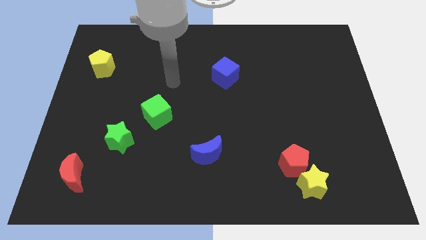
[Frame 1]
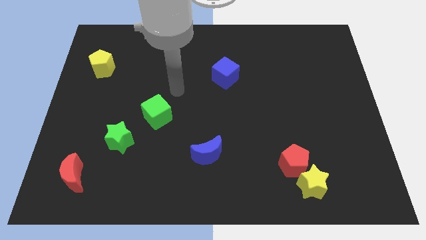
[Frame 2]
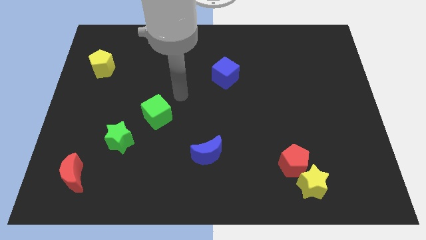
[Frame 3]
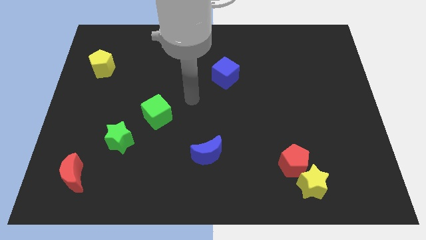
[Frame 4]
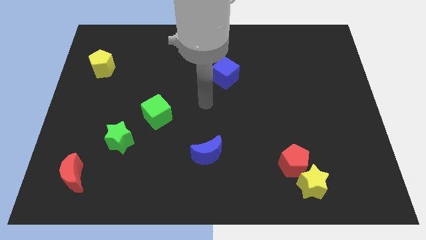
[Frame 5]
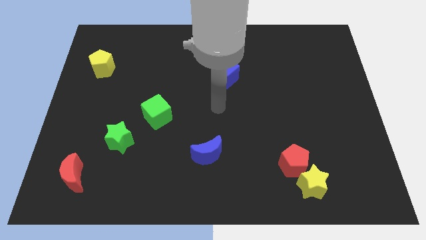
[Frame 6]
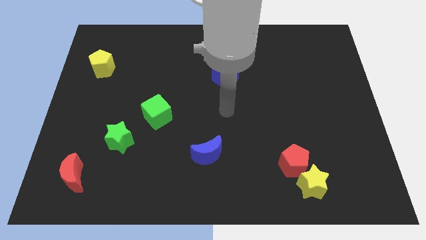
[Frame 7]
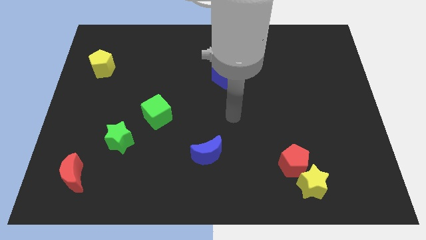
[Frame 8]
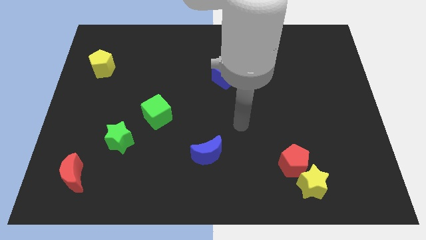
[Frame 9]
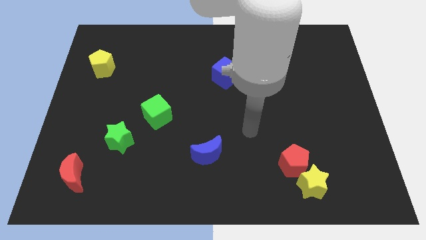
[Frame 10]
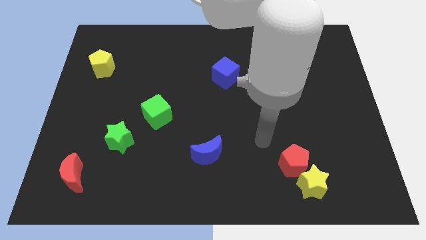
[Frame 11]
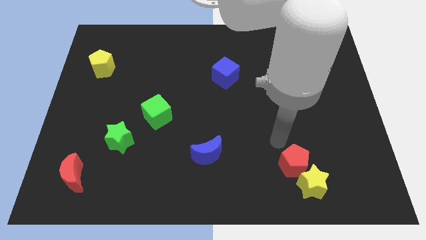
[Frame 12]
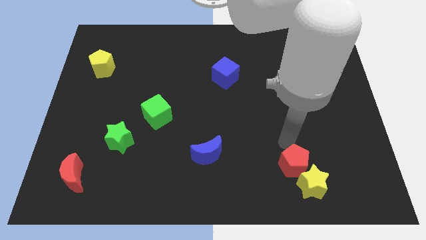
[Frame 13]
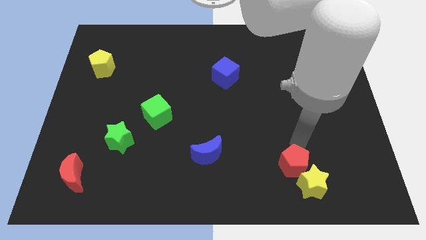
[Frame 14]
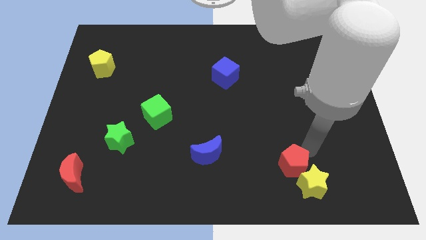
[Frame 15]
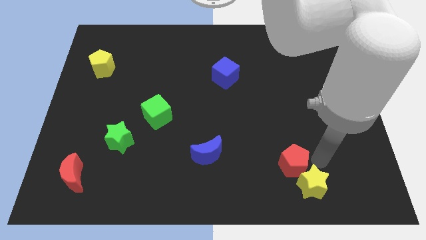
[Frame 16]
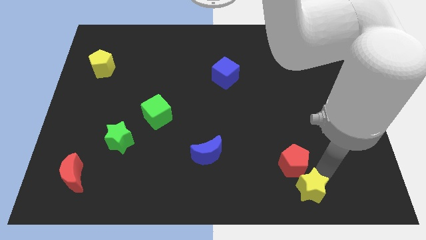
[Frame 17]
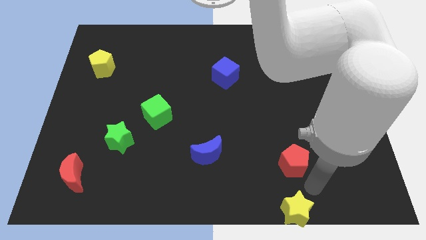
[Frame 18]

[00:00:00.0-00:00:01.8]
pull the red pentagon apart from the yellow star

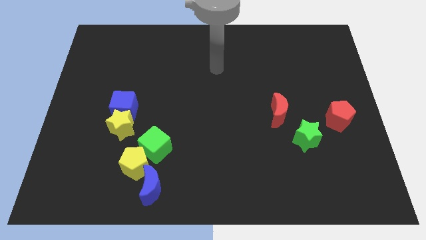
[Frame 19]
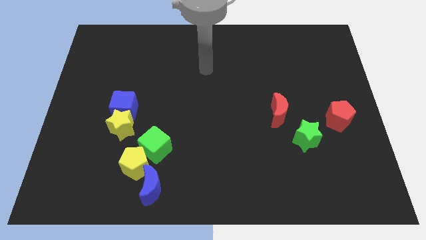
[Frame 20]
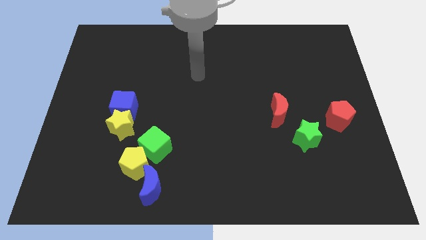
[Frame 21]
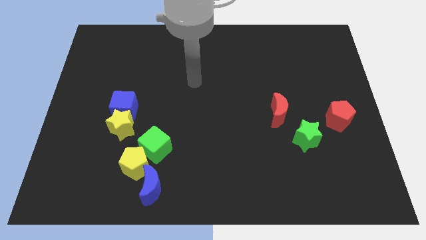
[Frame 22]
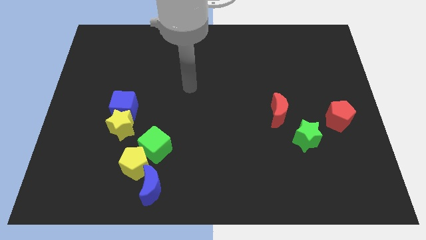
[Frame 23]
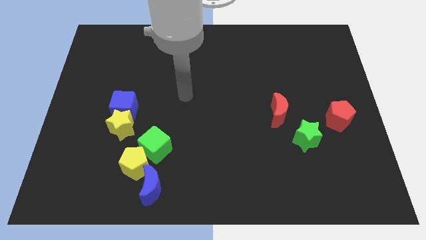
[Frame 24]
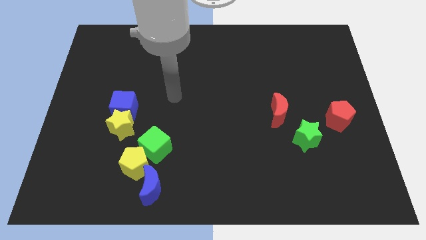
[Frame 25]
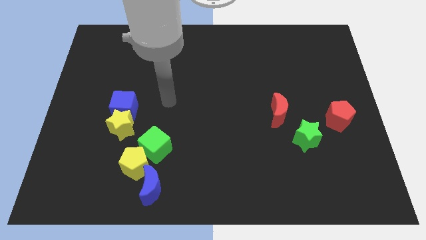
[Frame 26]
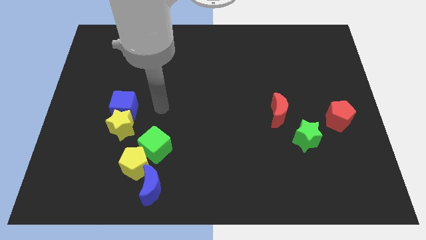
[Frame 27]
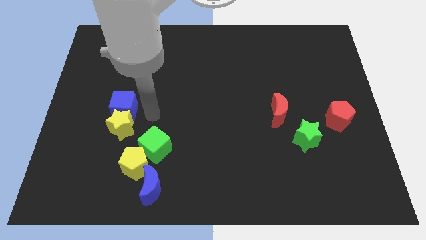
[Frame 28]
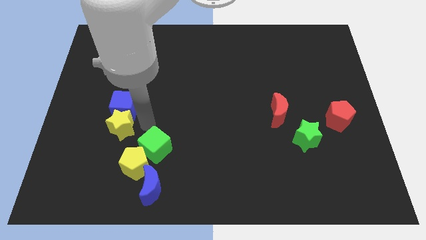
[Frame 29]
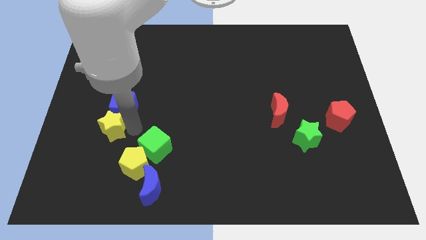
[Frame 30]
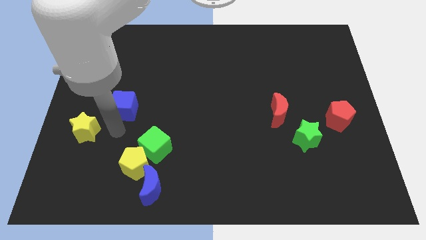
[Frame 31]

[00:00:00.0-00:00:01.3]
move the blue cube away from the yellow star

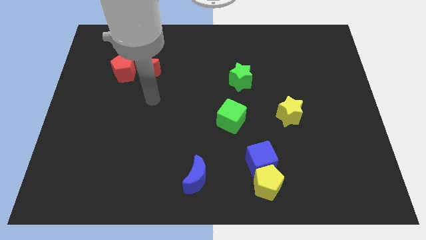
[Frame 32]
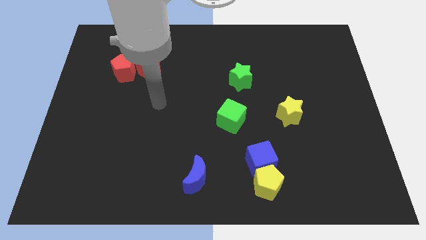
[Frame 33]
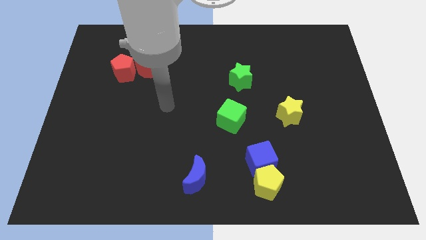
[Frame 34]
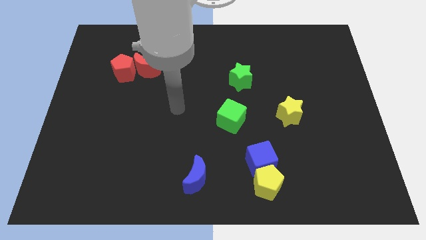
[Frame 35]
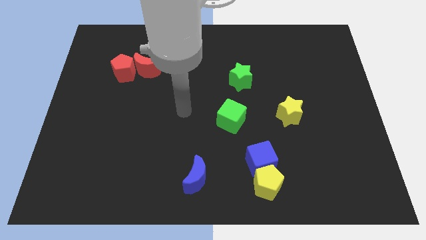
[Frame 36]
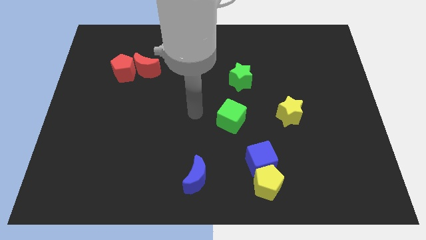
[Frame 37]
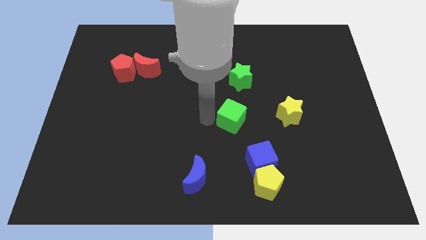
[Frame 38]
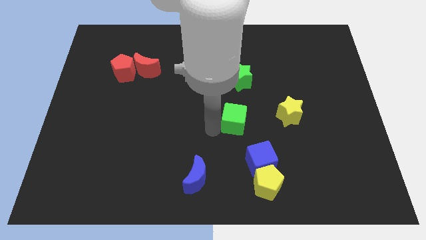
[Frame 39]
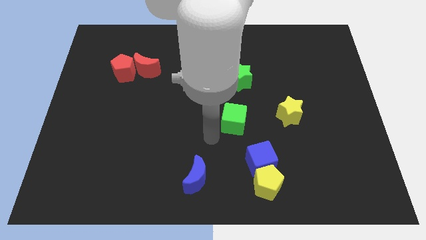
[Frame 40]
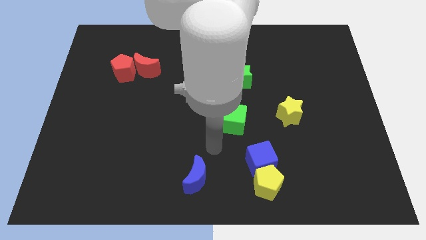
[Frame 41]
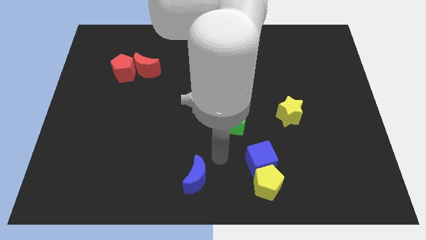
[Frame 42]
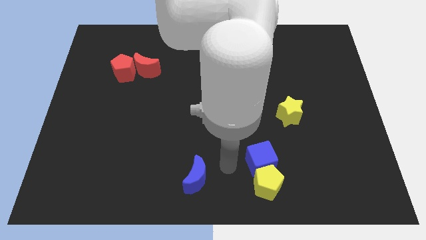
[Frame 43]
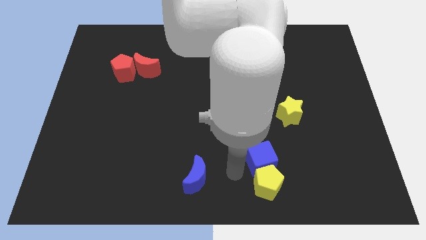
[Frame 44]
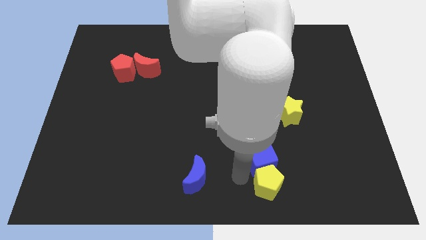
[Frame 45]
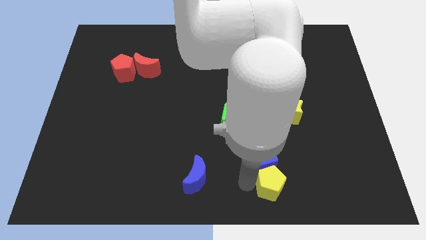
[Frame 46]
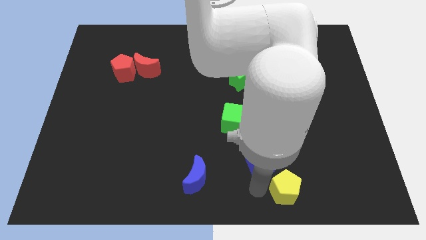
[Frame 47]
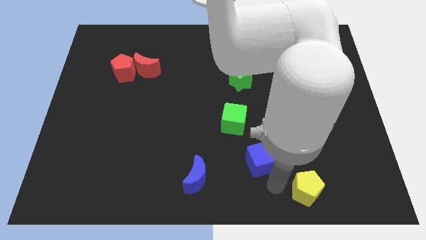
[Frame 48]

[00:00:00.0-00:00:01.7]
move the blue cube away from the yellow pentagon

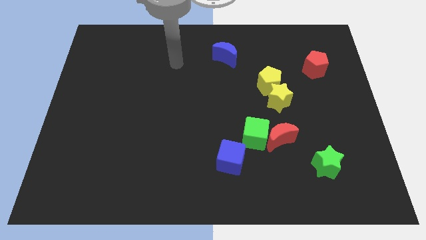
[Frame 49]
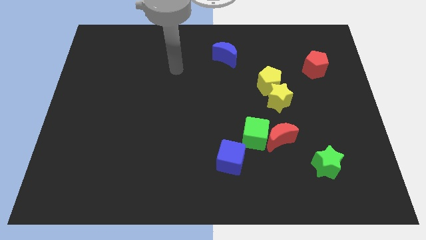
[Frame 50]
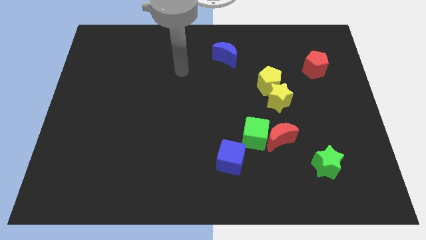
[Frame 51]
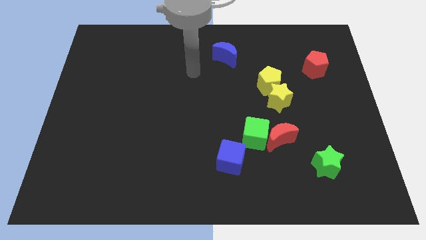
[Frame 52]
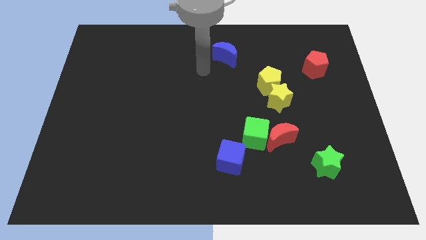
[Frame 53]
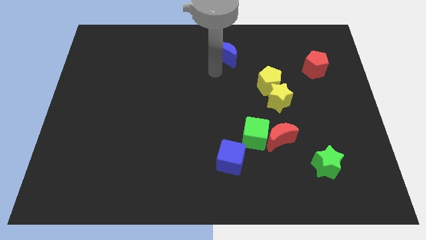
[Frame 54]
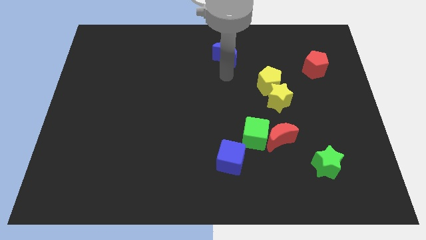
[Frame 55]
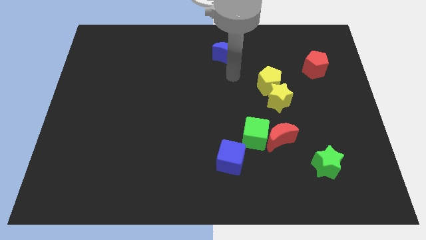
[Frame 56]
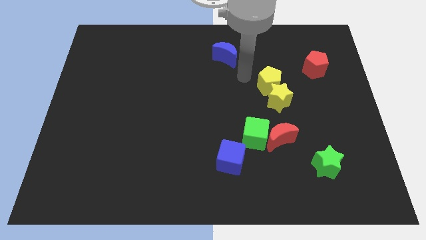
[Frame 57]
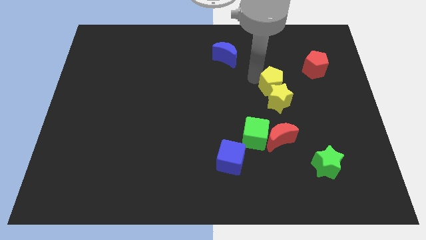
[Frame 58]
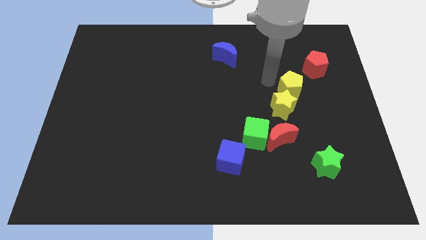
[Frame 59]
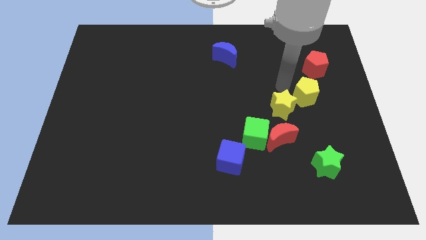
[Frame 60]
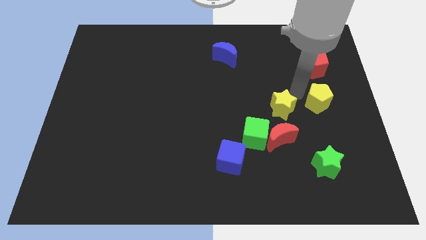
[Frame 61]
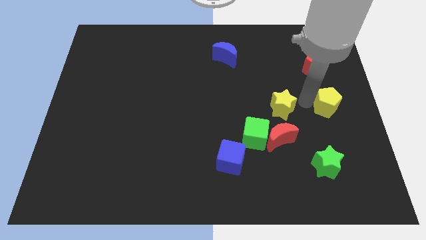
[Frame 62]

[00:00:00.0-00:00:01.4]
move the yellow star away from the yellow pentagon

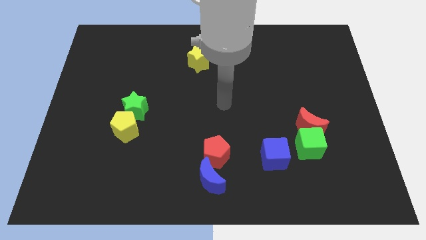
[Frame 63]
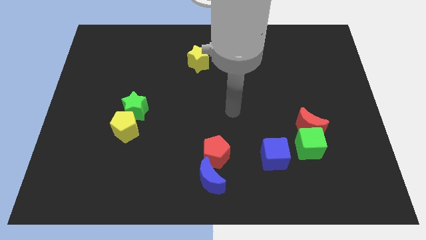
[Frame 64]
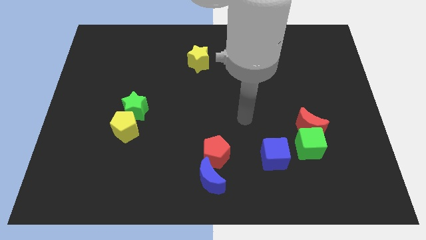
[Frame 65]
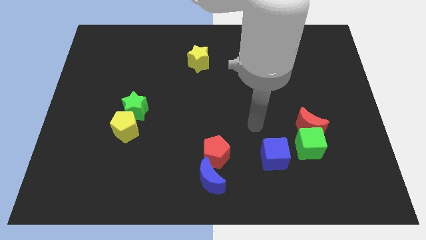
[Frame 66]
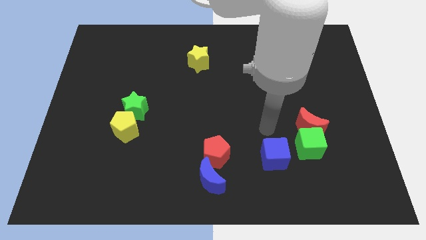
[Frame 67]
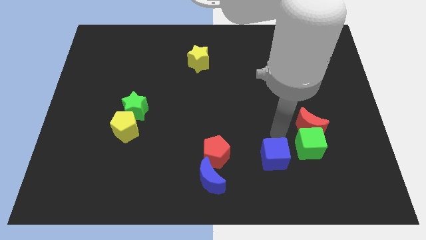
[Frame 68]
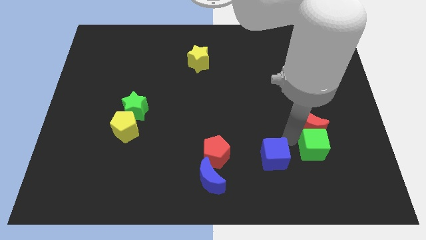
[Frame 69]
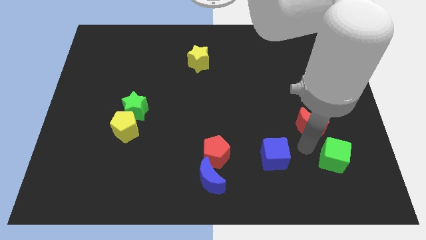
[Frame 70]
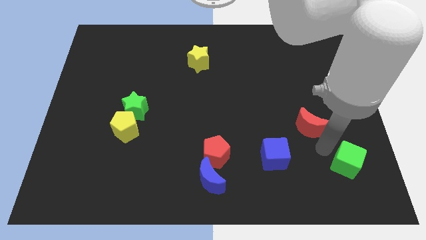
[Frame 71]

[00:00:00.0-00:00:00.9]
pull the red moon apart from the green cube

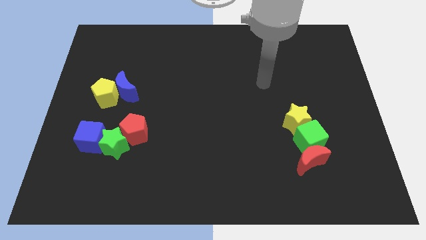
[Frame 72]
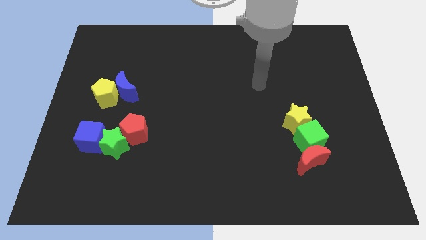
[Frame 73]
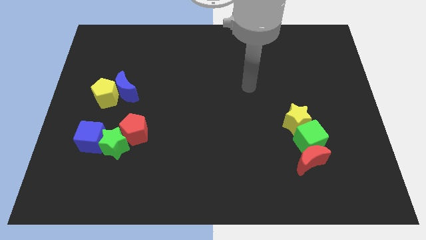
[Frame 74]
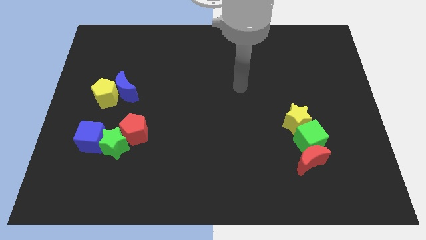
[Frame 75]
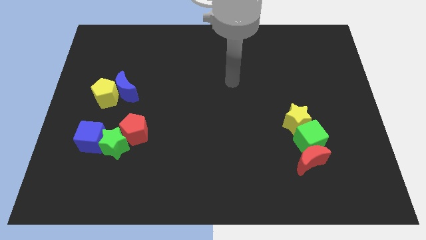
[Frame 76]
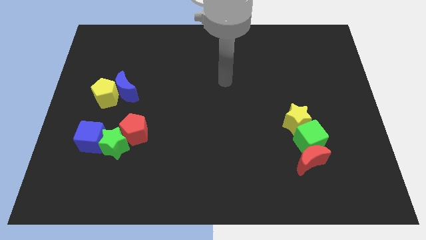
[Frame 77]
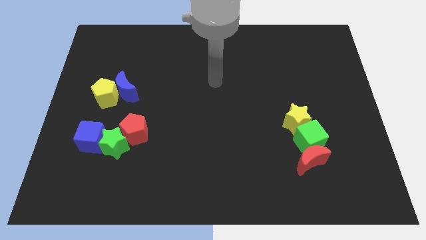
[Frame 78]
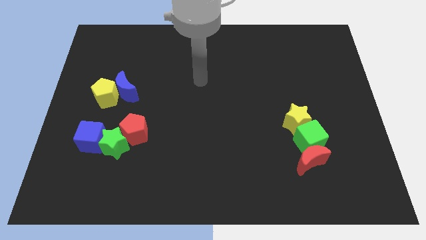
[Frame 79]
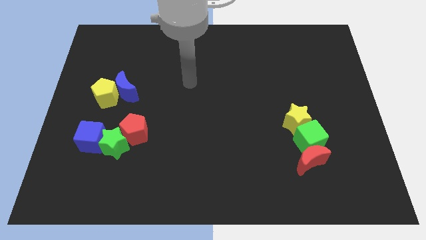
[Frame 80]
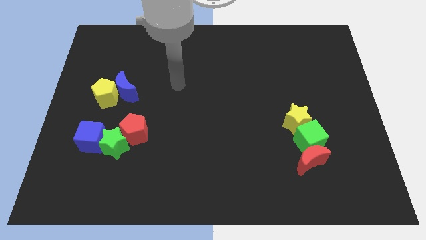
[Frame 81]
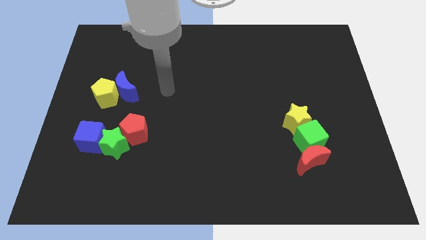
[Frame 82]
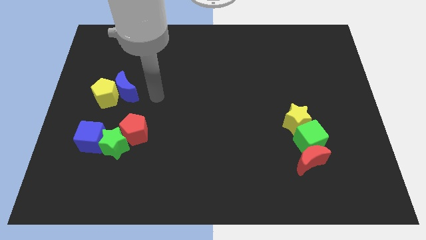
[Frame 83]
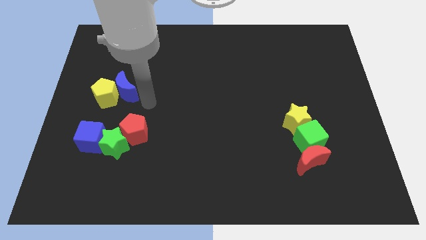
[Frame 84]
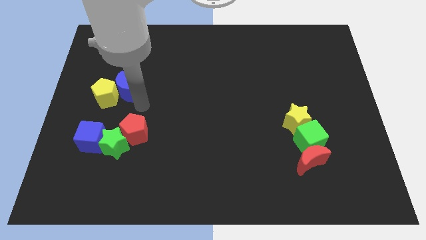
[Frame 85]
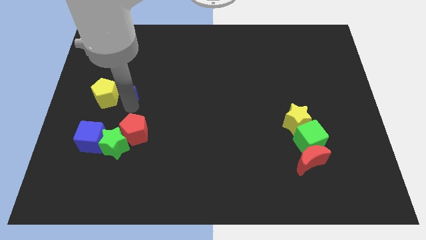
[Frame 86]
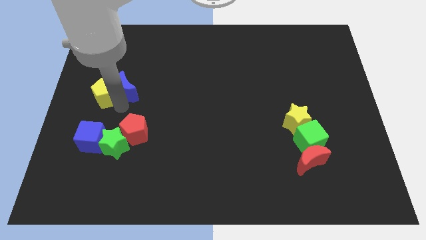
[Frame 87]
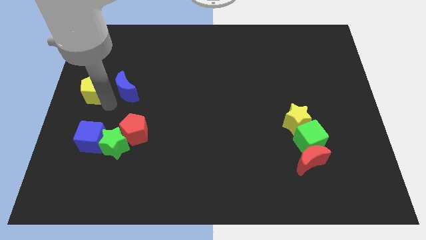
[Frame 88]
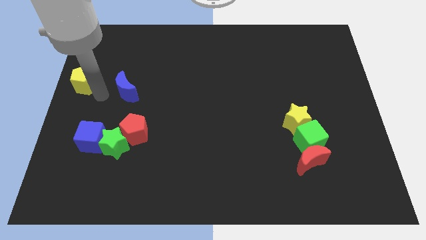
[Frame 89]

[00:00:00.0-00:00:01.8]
pull the blue moon apart from the yellow pentagon

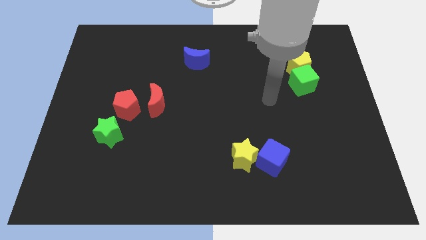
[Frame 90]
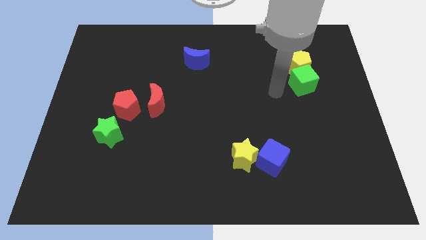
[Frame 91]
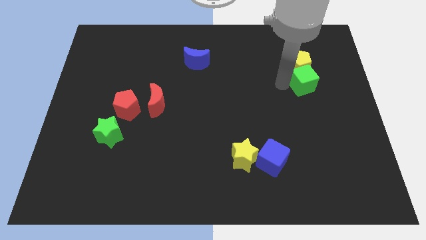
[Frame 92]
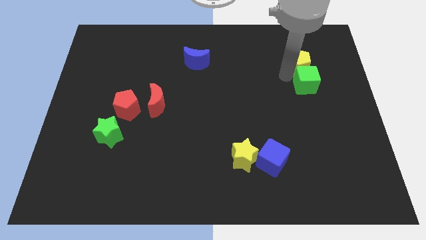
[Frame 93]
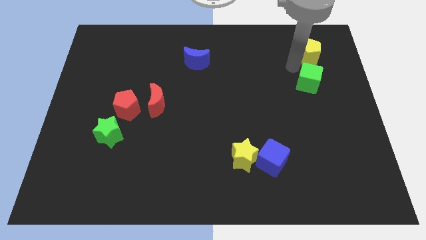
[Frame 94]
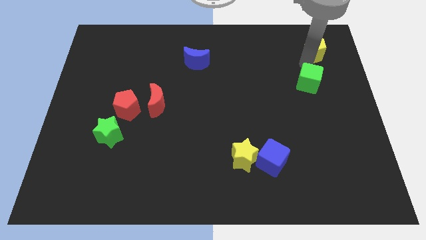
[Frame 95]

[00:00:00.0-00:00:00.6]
pull the green cube apart from the yellow pentagon
